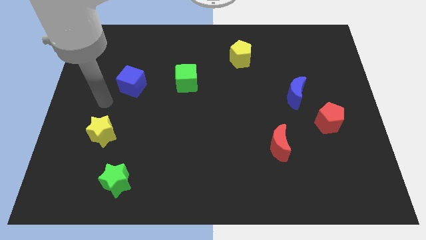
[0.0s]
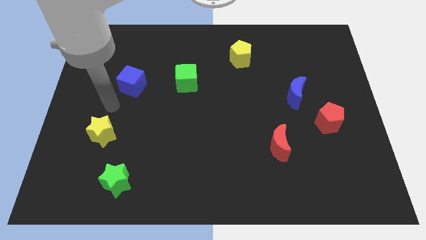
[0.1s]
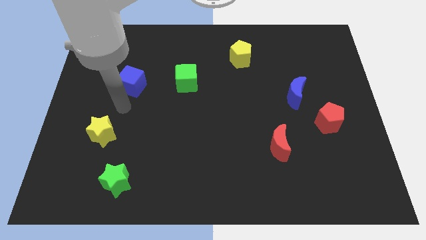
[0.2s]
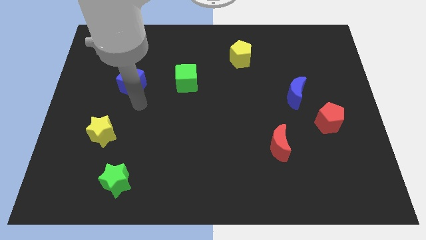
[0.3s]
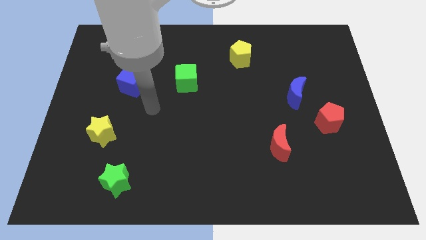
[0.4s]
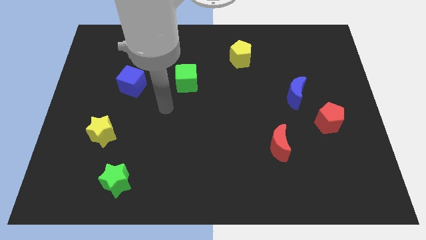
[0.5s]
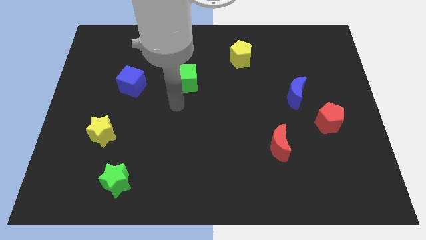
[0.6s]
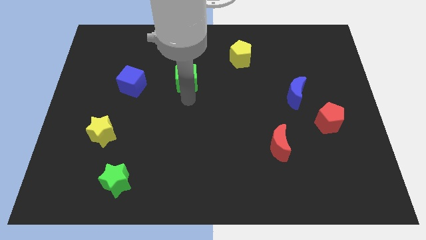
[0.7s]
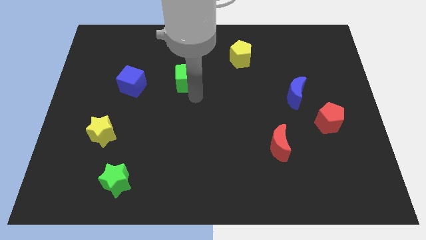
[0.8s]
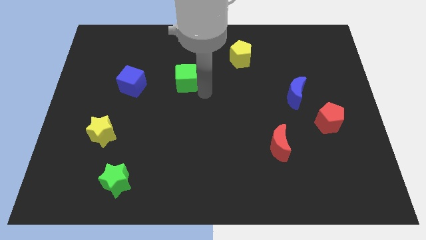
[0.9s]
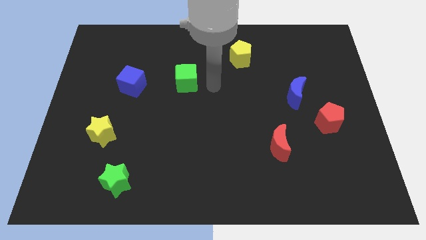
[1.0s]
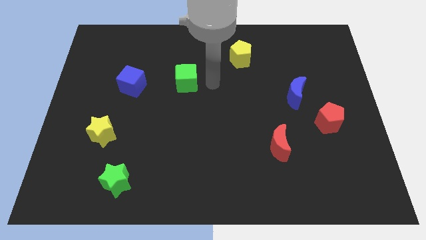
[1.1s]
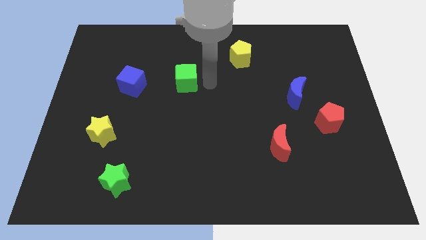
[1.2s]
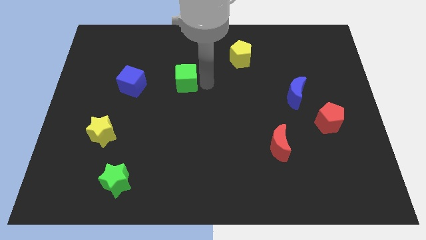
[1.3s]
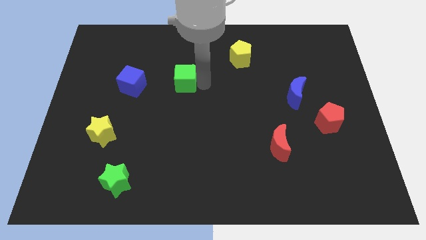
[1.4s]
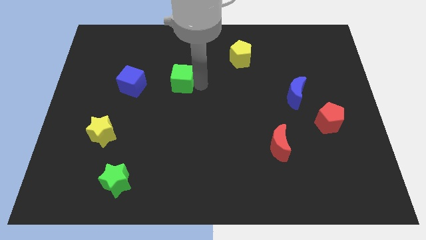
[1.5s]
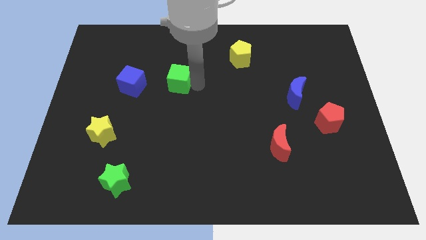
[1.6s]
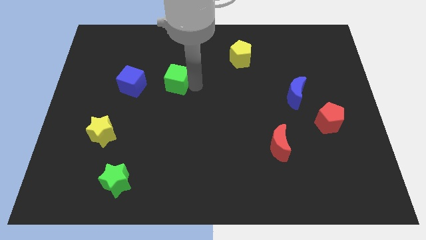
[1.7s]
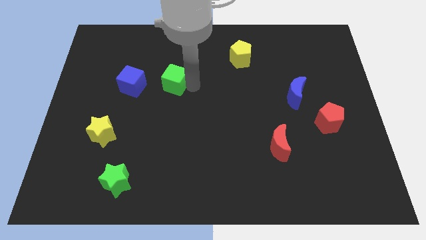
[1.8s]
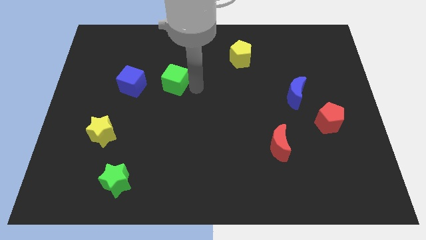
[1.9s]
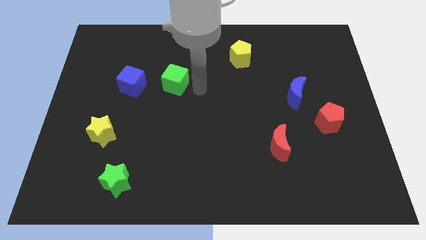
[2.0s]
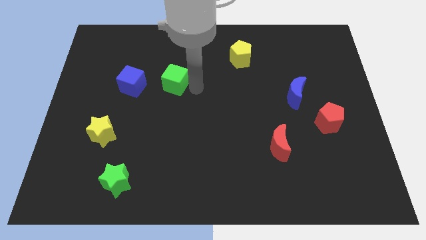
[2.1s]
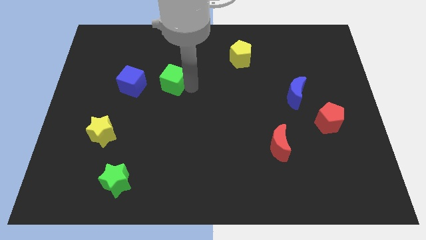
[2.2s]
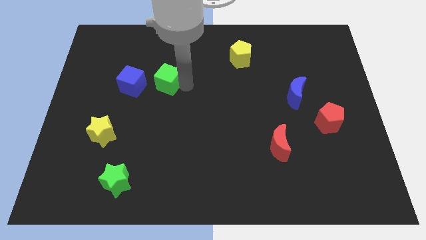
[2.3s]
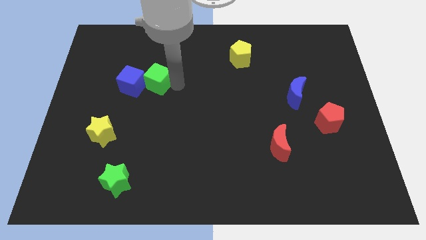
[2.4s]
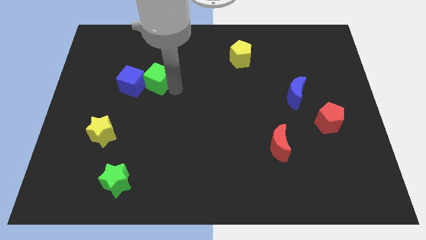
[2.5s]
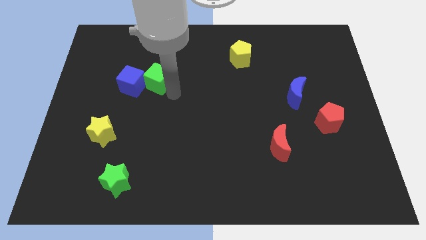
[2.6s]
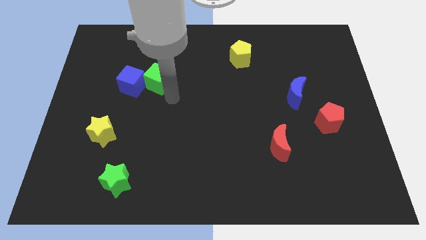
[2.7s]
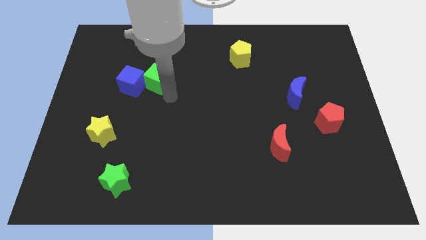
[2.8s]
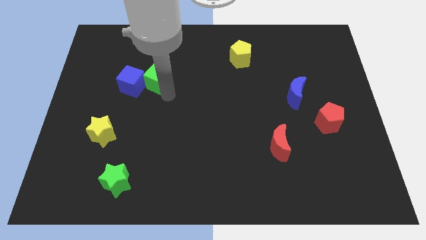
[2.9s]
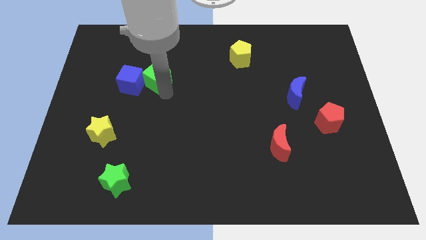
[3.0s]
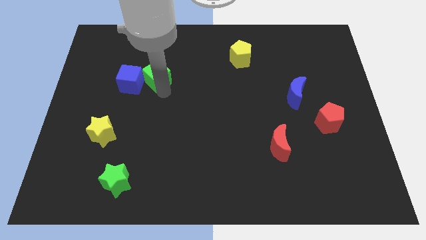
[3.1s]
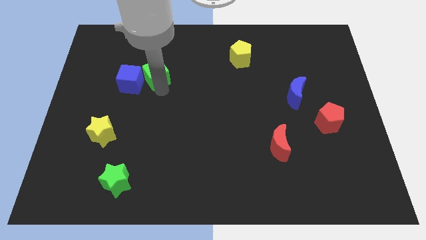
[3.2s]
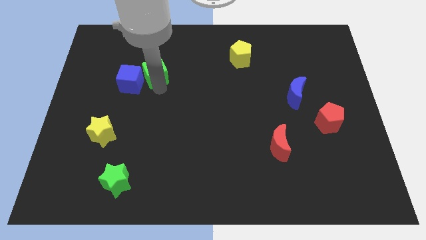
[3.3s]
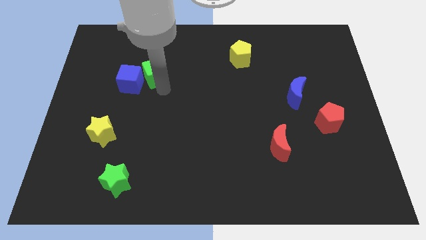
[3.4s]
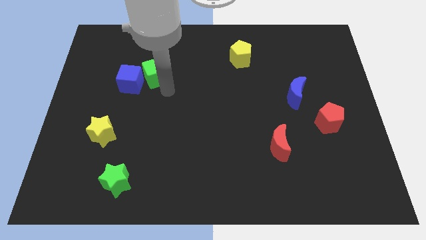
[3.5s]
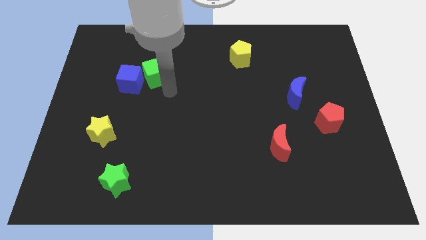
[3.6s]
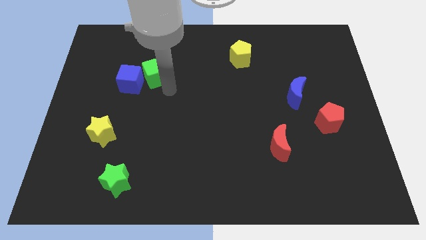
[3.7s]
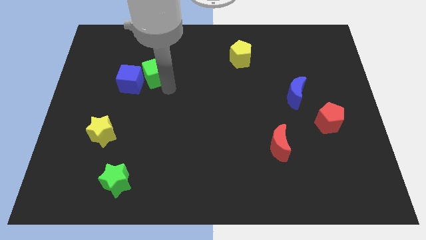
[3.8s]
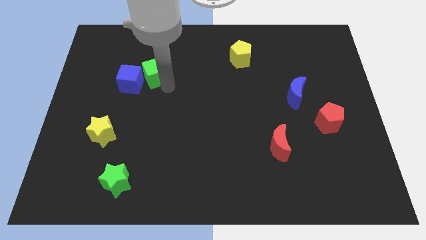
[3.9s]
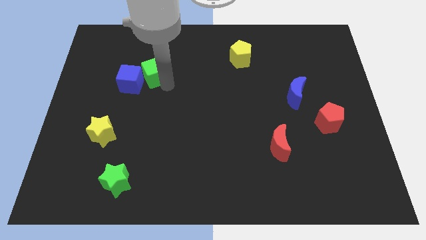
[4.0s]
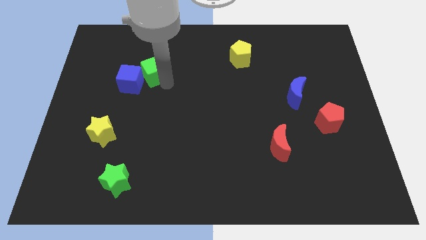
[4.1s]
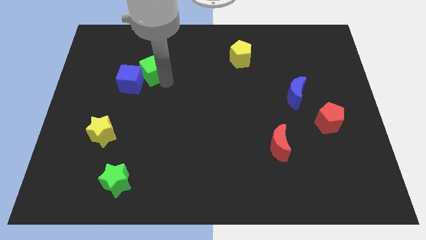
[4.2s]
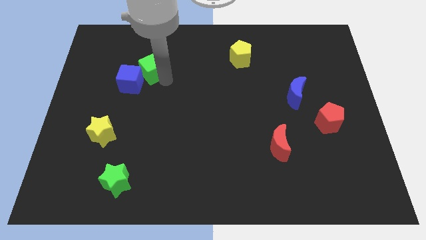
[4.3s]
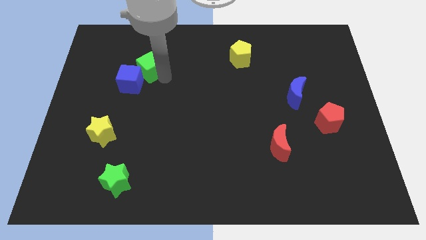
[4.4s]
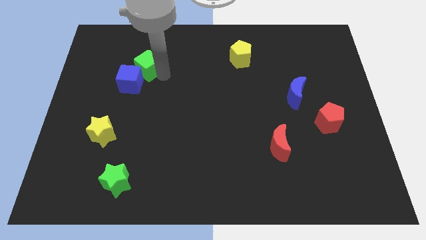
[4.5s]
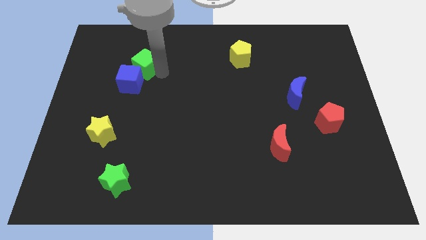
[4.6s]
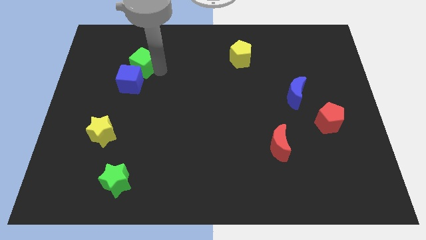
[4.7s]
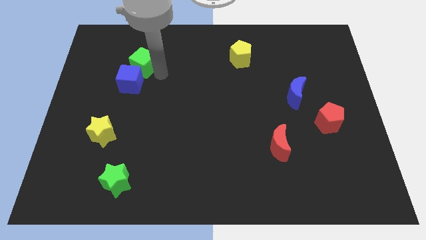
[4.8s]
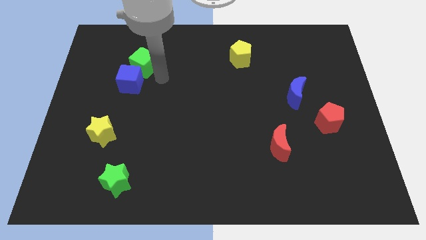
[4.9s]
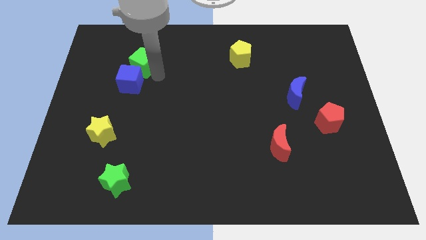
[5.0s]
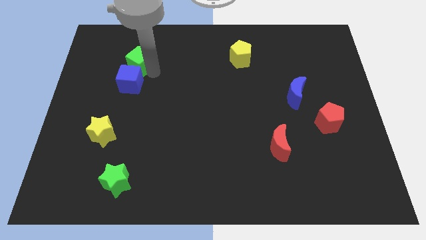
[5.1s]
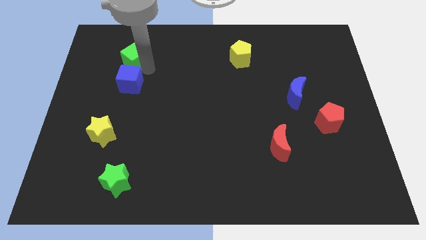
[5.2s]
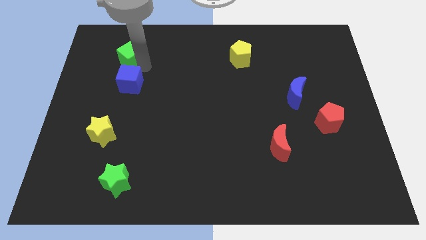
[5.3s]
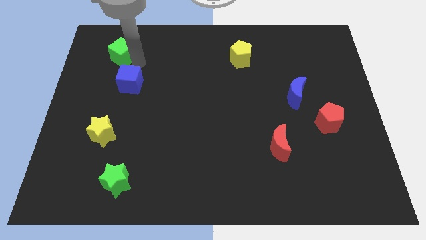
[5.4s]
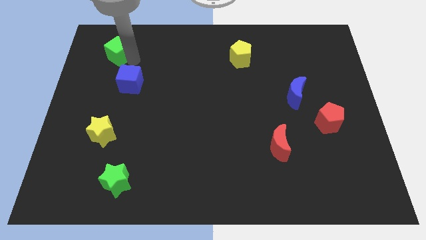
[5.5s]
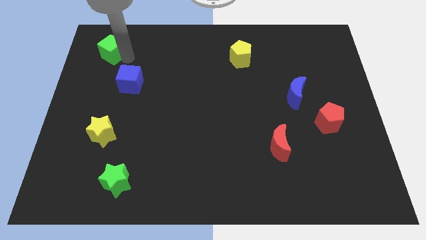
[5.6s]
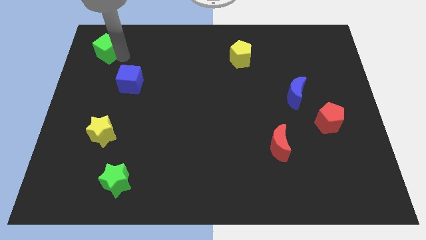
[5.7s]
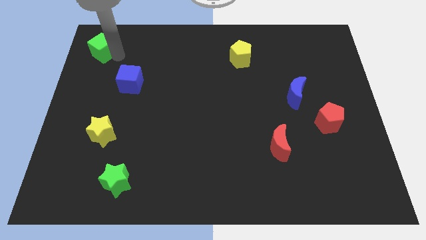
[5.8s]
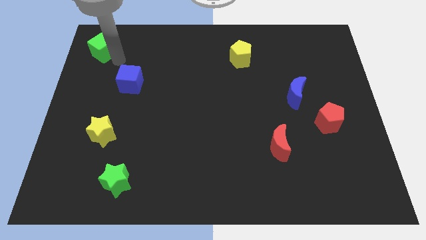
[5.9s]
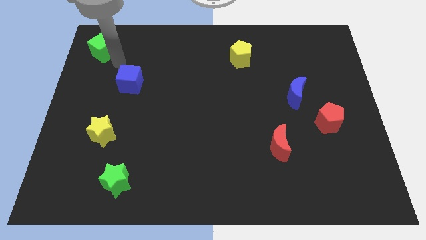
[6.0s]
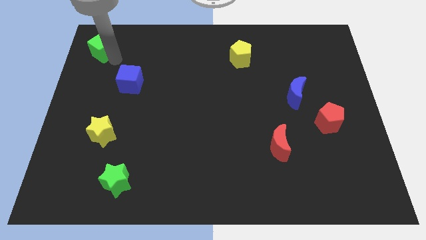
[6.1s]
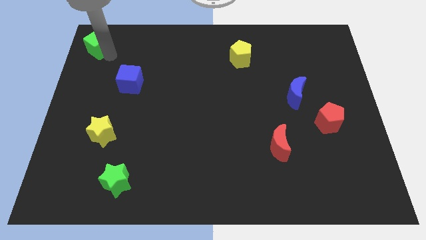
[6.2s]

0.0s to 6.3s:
slide the green cube to the top left of the board

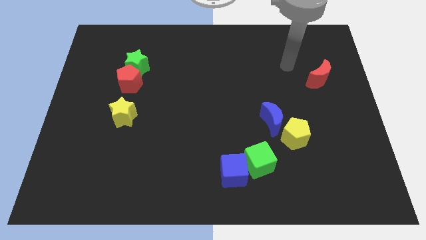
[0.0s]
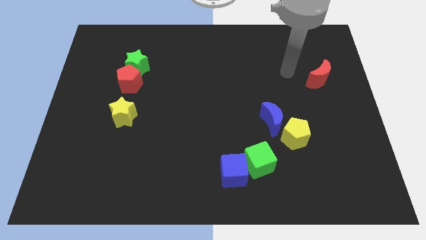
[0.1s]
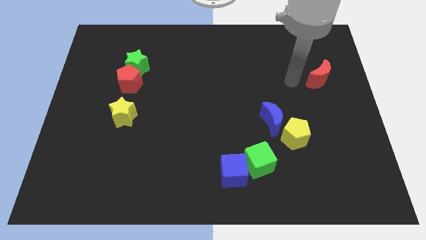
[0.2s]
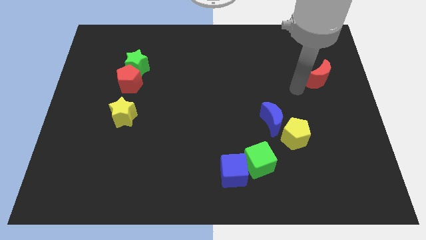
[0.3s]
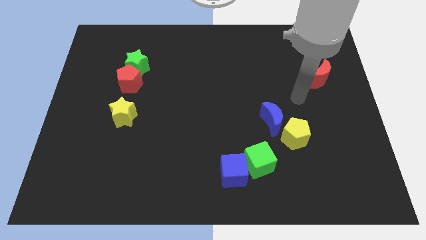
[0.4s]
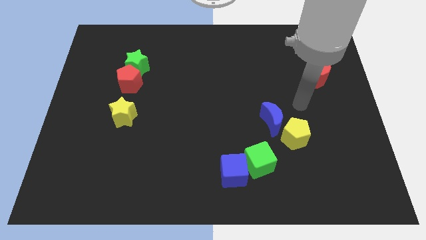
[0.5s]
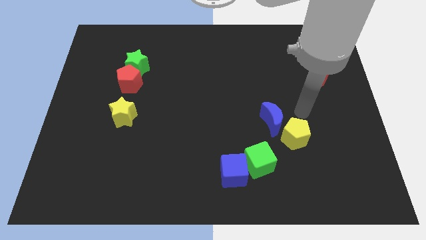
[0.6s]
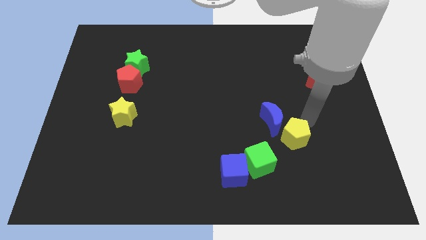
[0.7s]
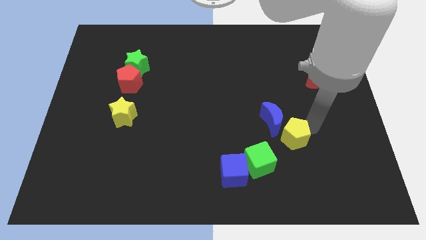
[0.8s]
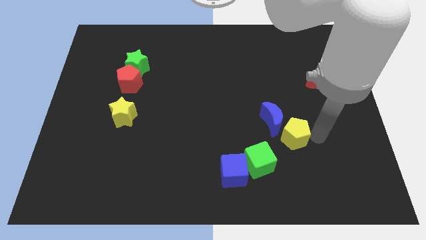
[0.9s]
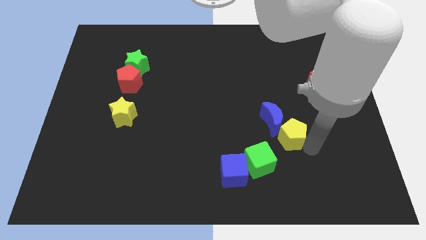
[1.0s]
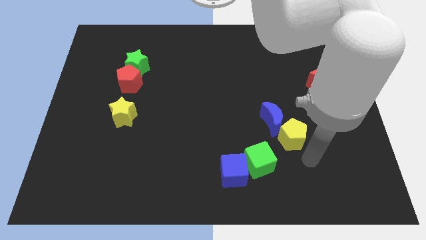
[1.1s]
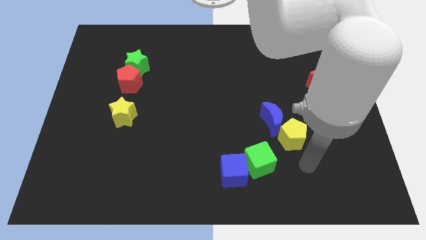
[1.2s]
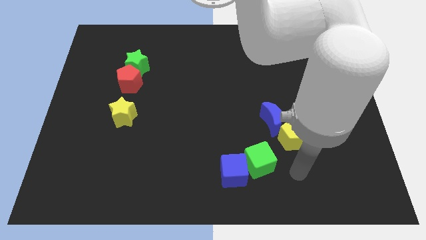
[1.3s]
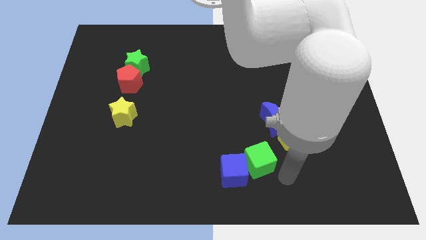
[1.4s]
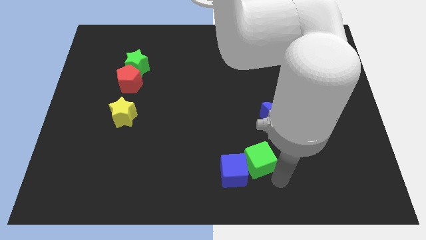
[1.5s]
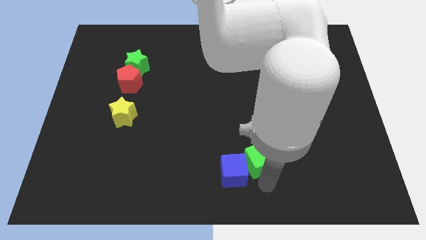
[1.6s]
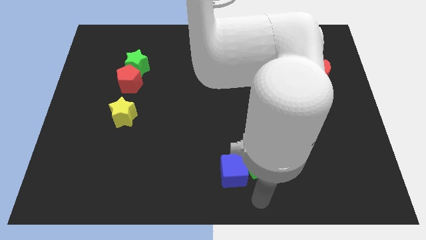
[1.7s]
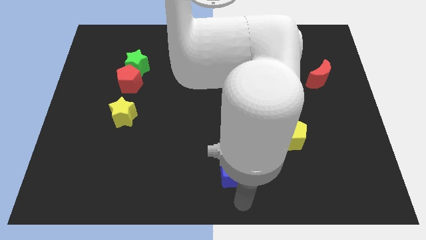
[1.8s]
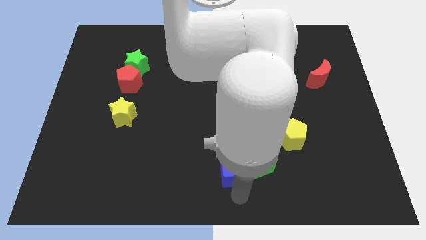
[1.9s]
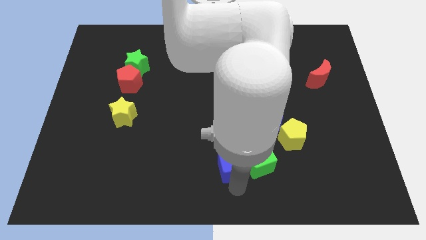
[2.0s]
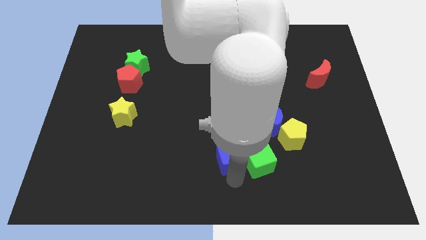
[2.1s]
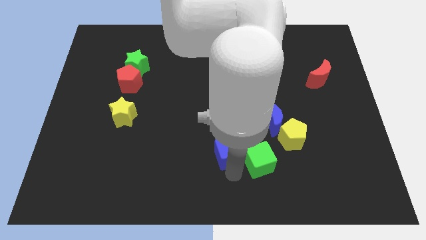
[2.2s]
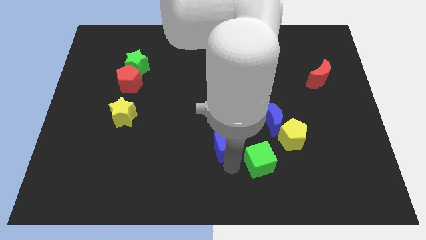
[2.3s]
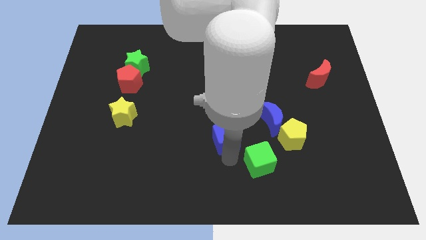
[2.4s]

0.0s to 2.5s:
put the blue cube to the middle of the board
